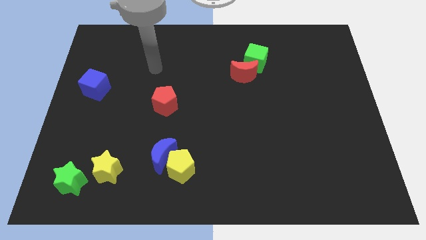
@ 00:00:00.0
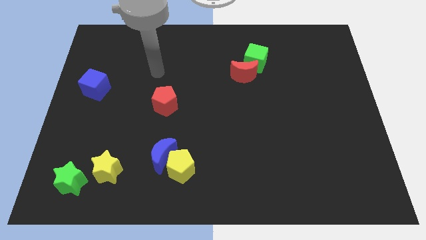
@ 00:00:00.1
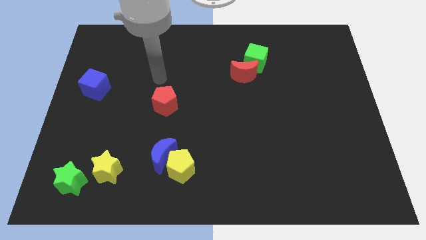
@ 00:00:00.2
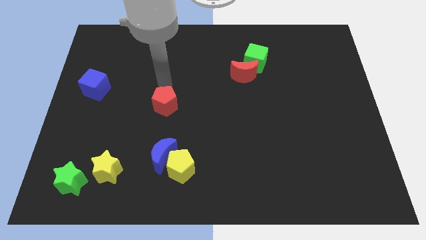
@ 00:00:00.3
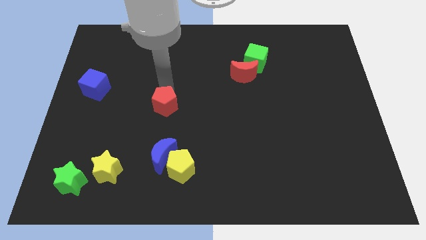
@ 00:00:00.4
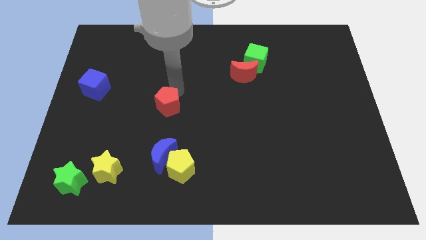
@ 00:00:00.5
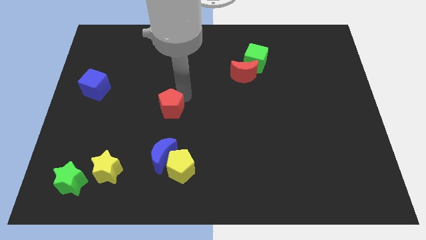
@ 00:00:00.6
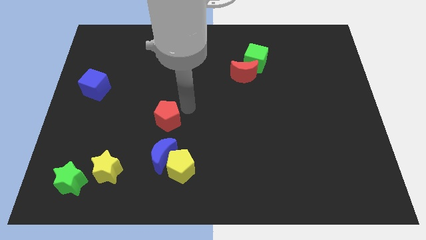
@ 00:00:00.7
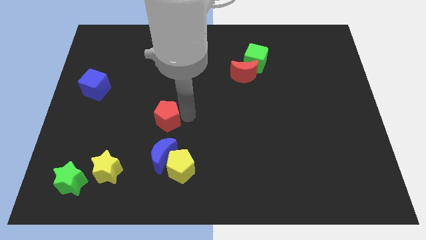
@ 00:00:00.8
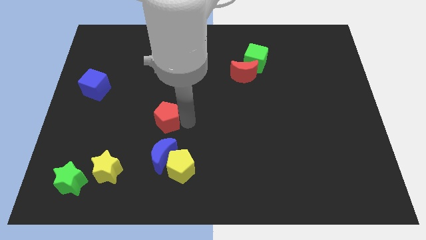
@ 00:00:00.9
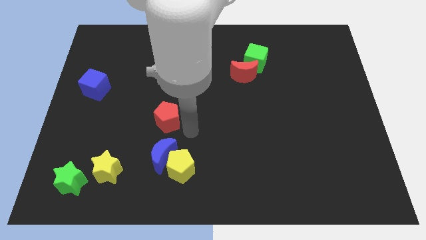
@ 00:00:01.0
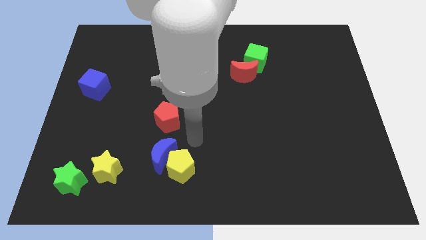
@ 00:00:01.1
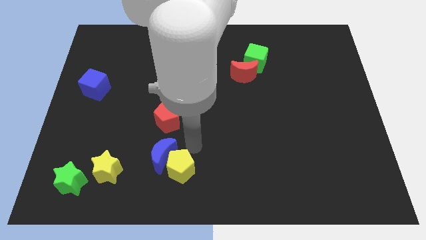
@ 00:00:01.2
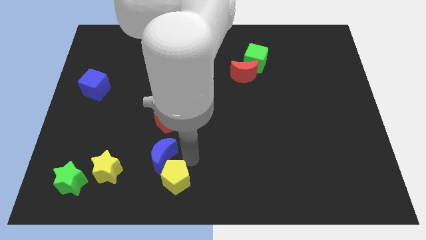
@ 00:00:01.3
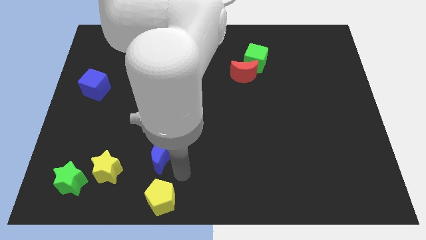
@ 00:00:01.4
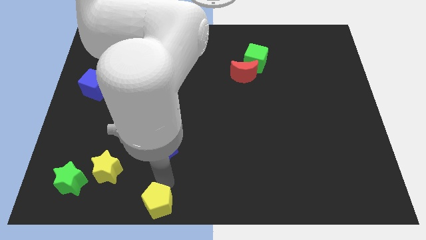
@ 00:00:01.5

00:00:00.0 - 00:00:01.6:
separate the blue moon from the yellow pentagon
